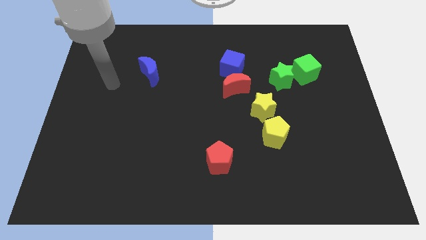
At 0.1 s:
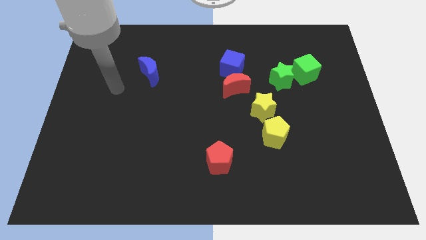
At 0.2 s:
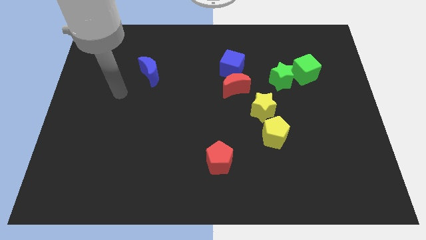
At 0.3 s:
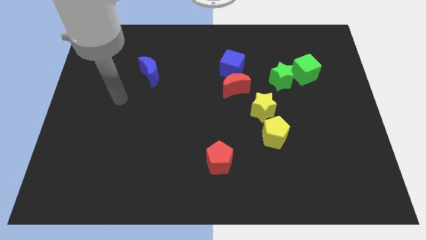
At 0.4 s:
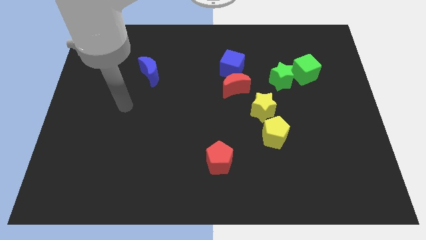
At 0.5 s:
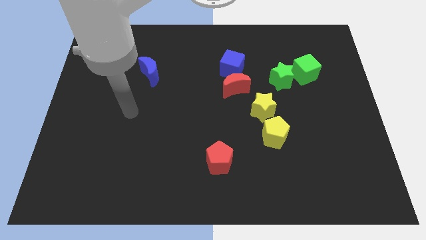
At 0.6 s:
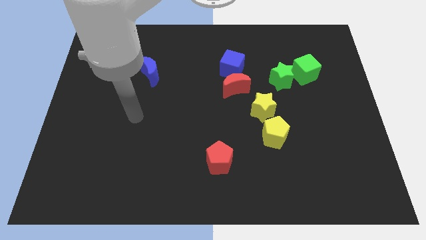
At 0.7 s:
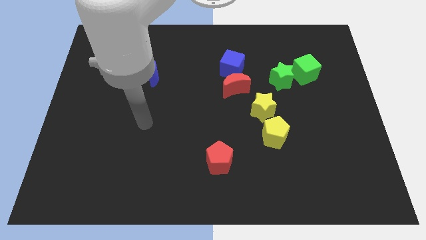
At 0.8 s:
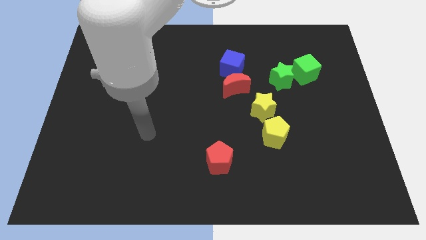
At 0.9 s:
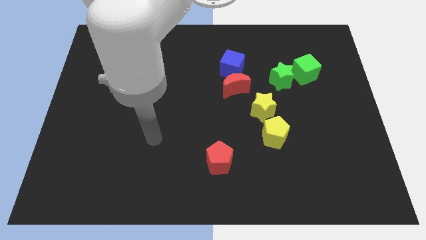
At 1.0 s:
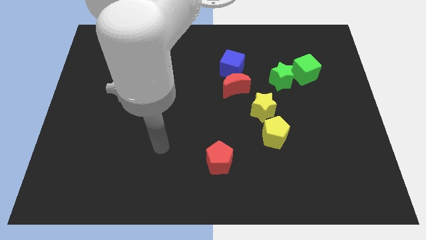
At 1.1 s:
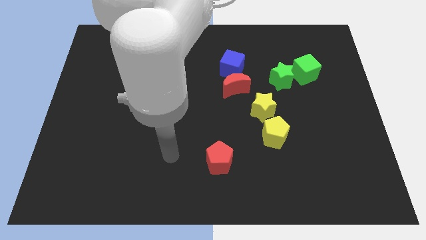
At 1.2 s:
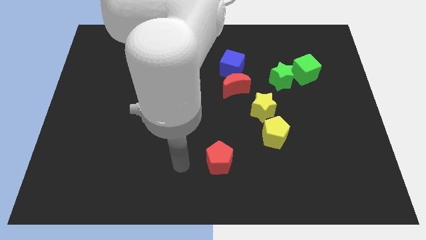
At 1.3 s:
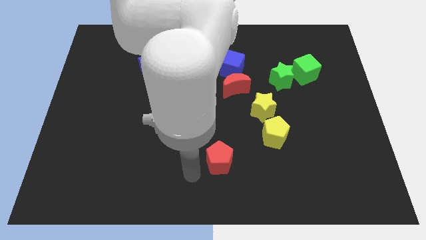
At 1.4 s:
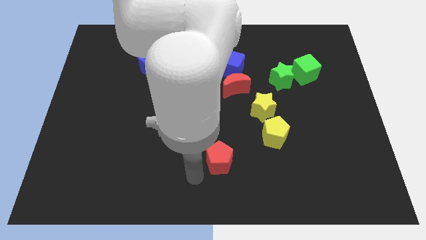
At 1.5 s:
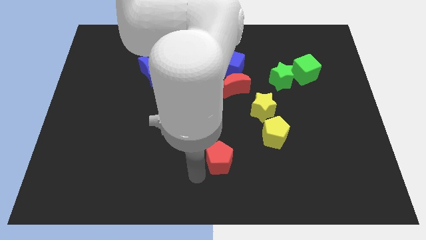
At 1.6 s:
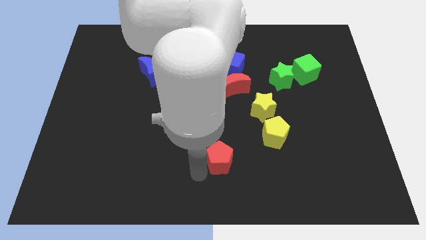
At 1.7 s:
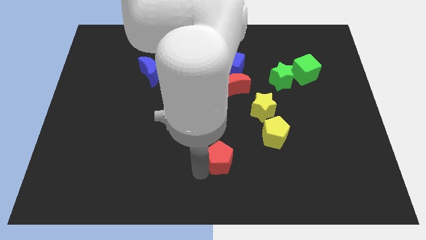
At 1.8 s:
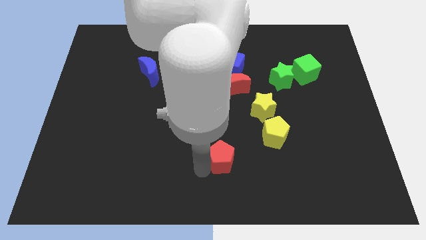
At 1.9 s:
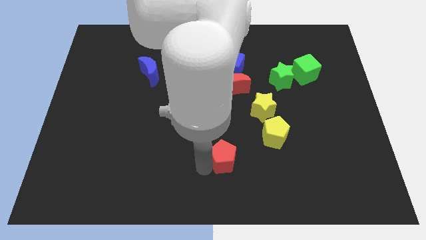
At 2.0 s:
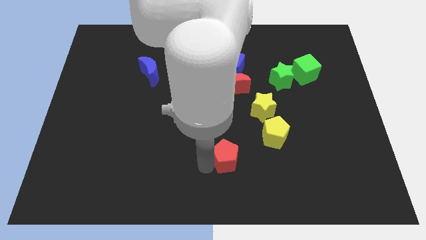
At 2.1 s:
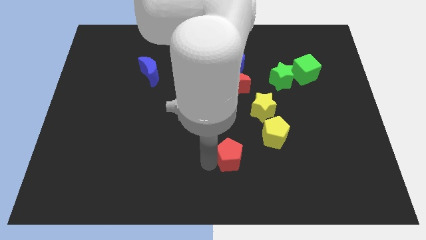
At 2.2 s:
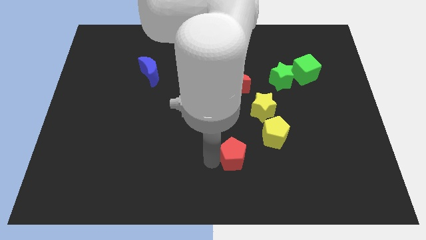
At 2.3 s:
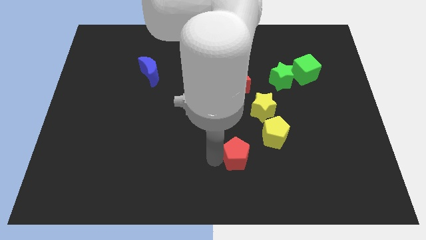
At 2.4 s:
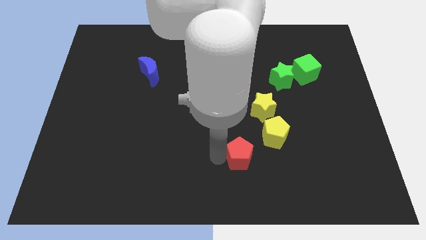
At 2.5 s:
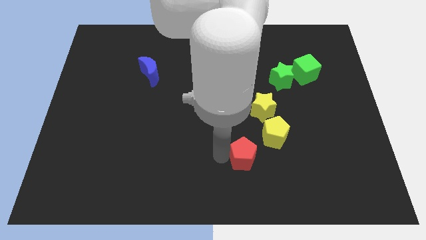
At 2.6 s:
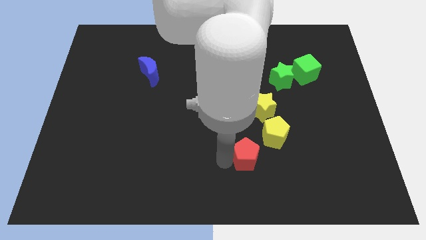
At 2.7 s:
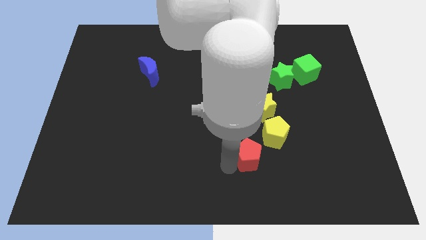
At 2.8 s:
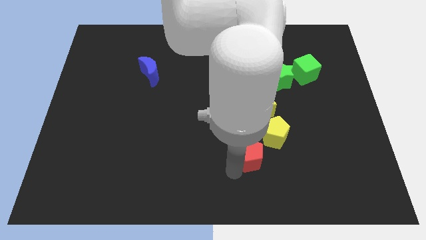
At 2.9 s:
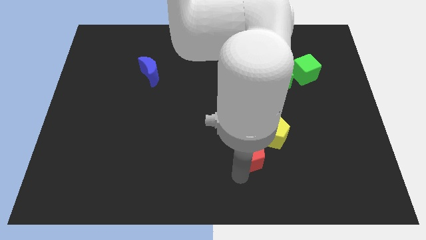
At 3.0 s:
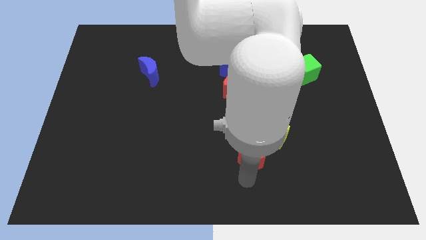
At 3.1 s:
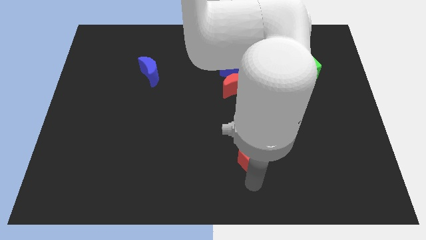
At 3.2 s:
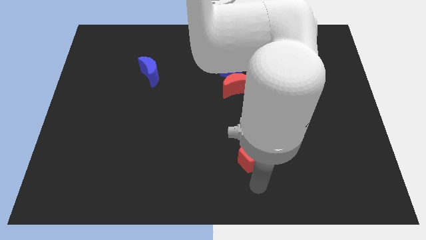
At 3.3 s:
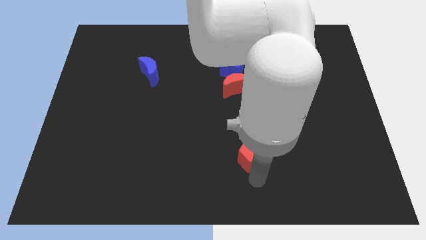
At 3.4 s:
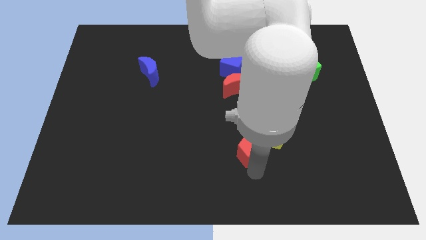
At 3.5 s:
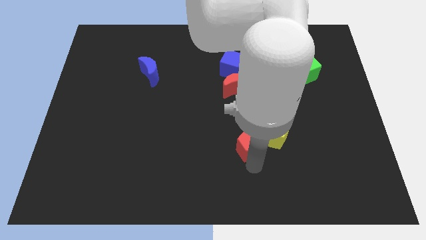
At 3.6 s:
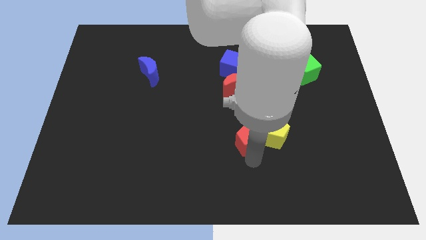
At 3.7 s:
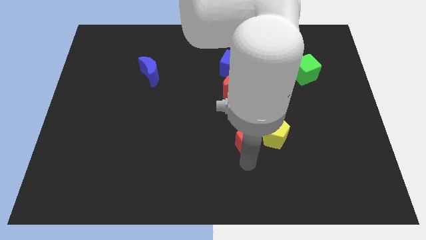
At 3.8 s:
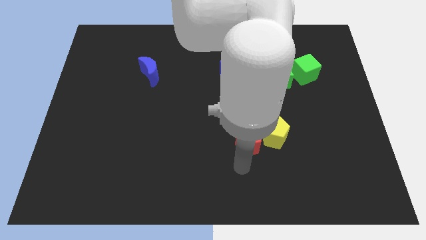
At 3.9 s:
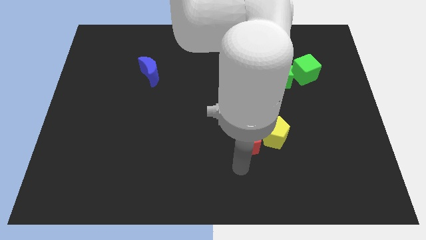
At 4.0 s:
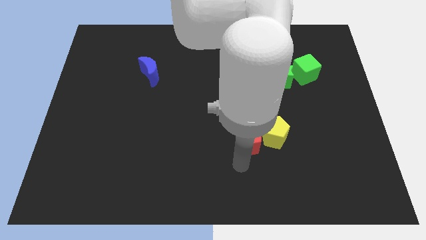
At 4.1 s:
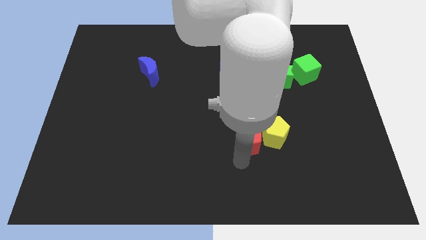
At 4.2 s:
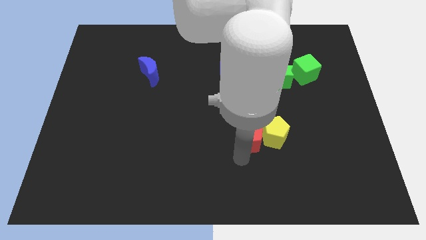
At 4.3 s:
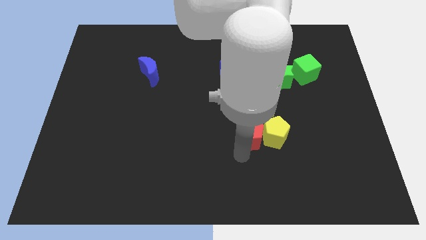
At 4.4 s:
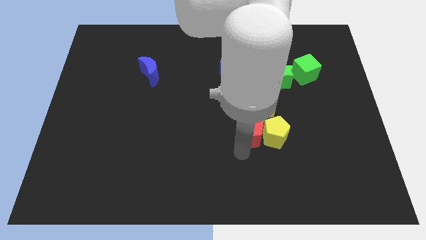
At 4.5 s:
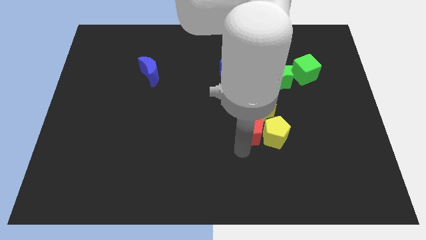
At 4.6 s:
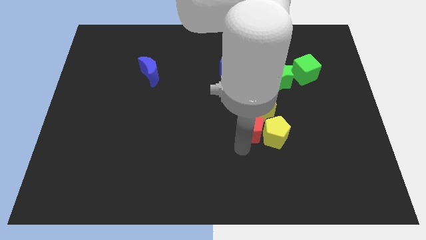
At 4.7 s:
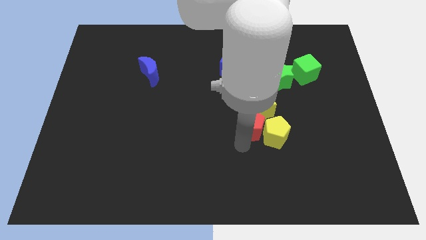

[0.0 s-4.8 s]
slide the red pentagon towards the yellow star

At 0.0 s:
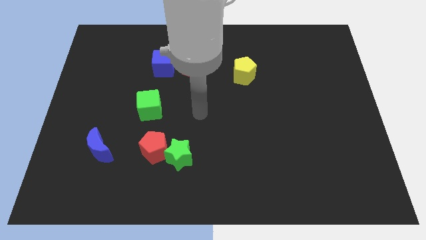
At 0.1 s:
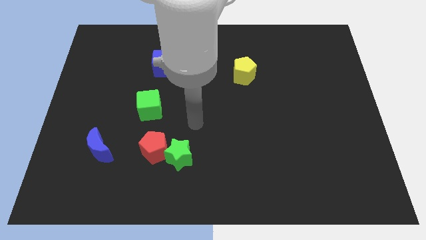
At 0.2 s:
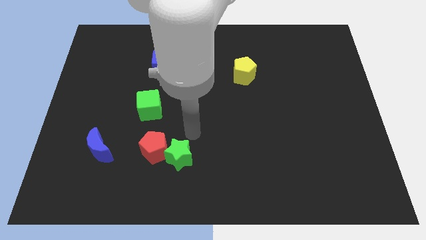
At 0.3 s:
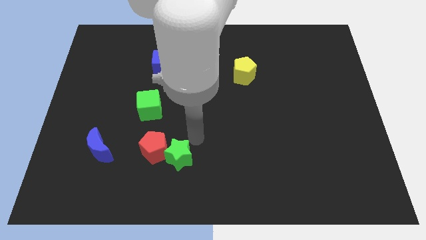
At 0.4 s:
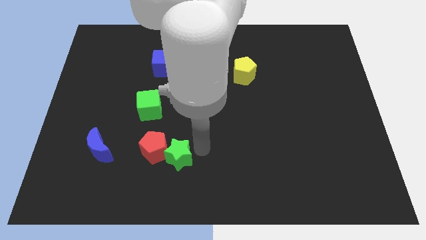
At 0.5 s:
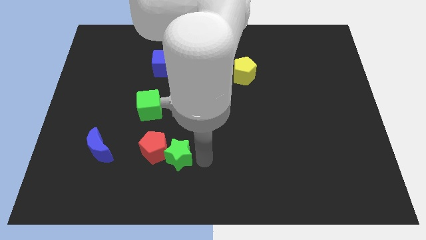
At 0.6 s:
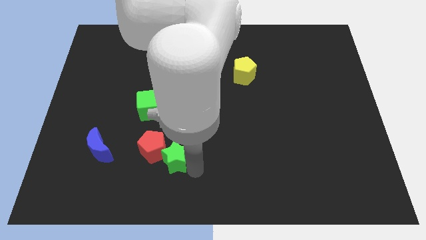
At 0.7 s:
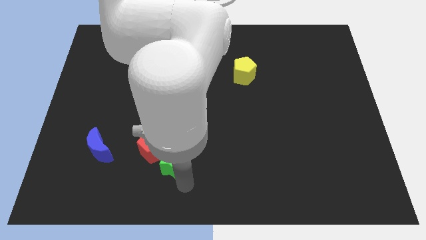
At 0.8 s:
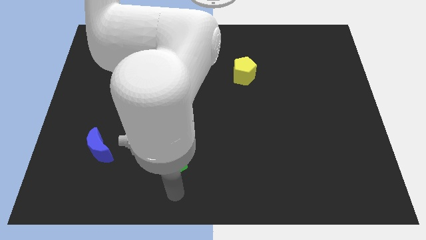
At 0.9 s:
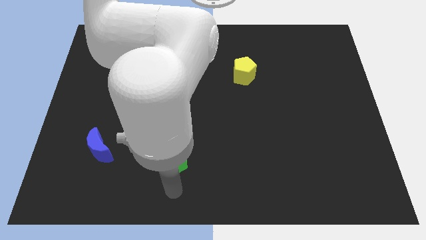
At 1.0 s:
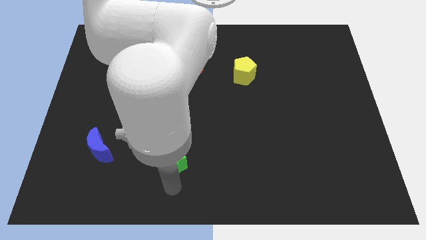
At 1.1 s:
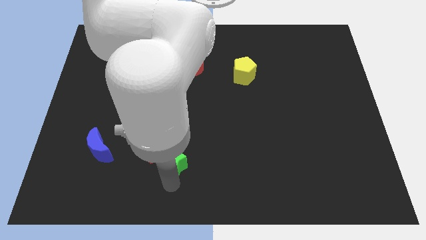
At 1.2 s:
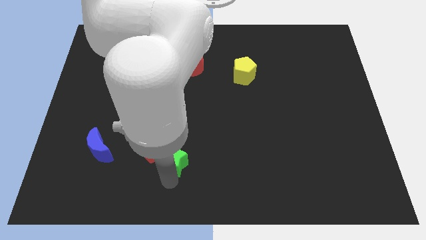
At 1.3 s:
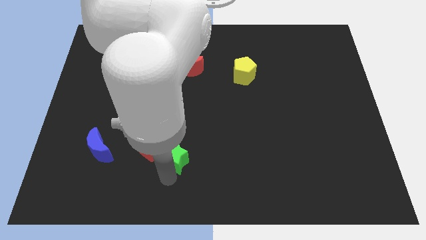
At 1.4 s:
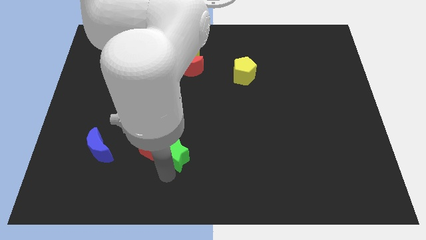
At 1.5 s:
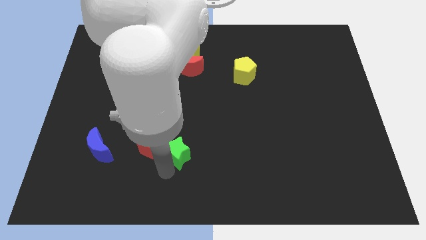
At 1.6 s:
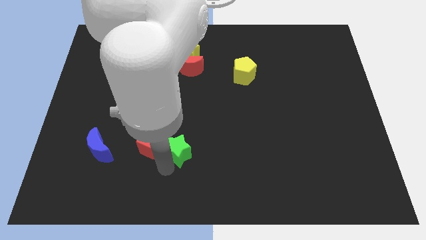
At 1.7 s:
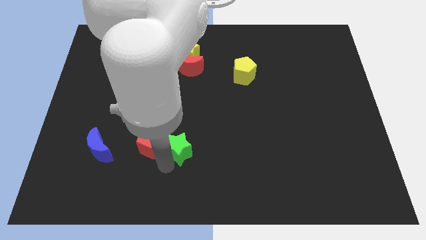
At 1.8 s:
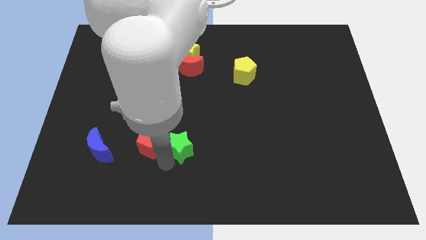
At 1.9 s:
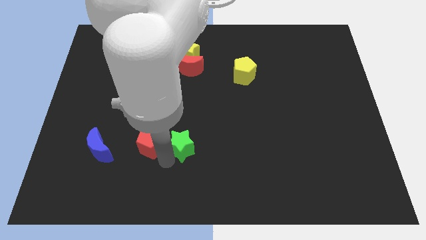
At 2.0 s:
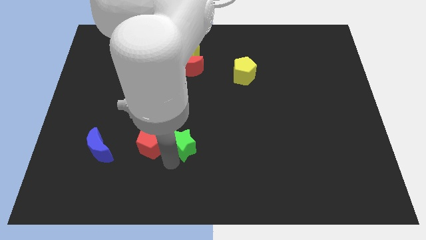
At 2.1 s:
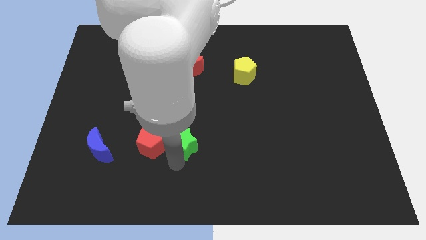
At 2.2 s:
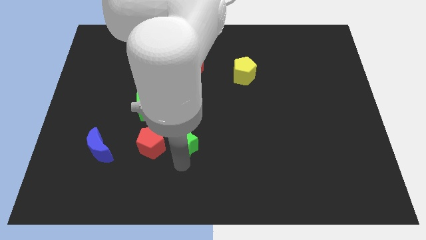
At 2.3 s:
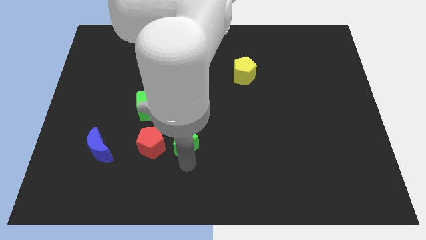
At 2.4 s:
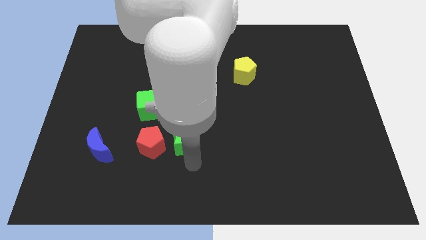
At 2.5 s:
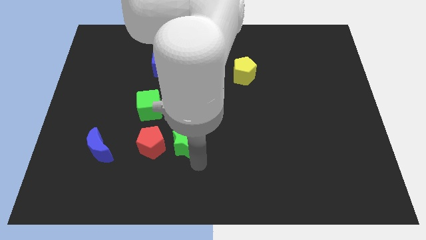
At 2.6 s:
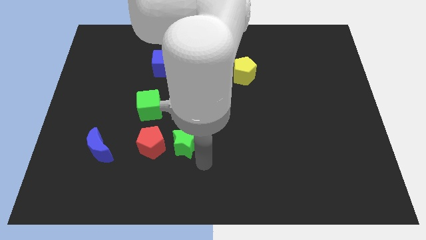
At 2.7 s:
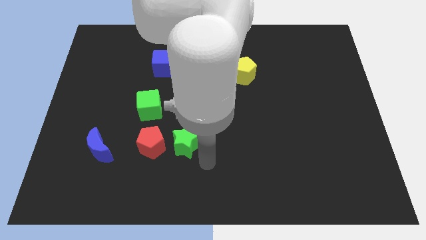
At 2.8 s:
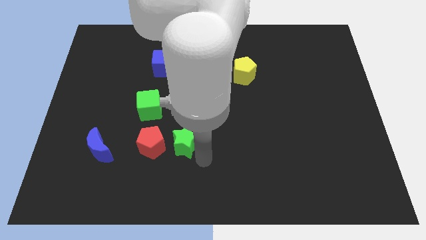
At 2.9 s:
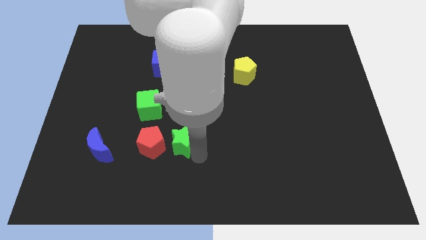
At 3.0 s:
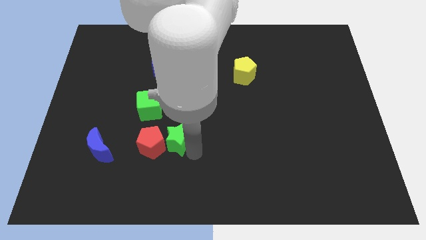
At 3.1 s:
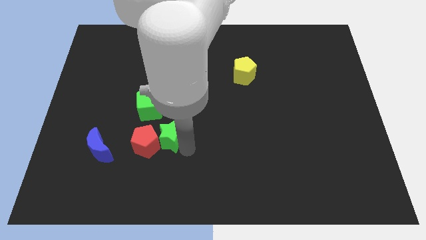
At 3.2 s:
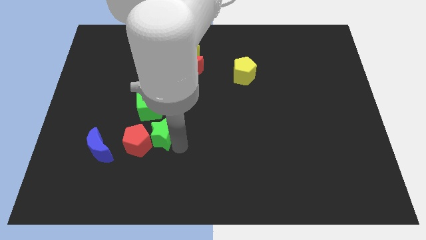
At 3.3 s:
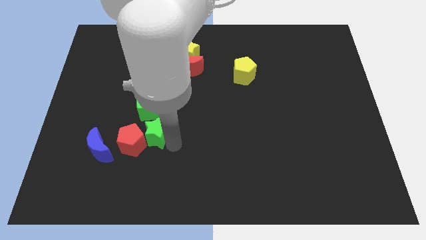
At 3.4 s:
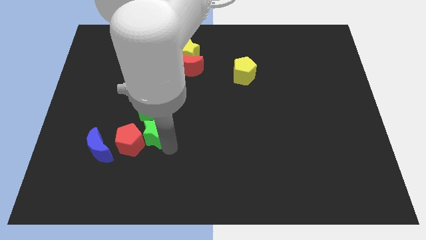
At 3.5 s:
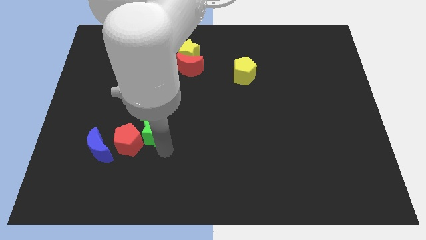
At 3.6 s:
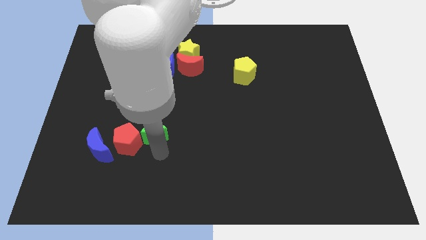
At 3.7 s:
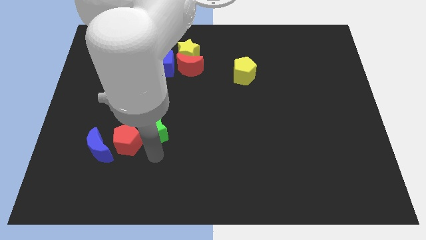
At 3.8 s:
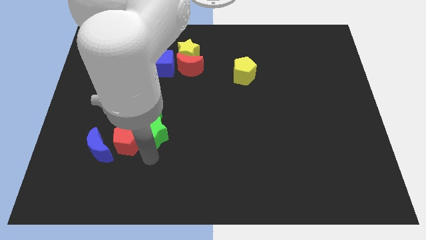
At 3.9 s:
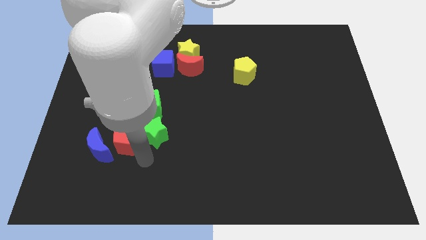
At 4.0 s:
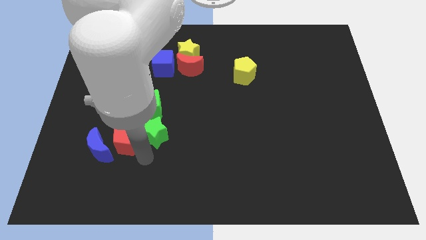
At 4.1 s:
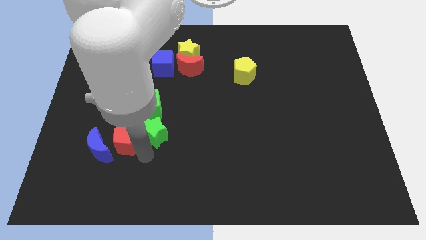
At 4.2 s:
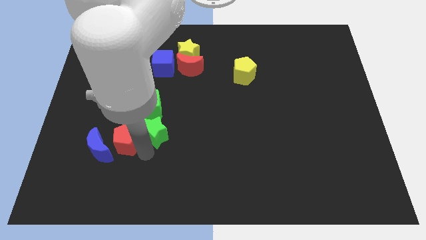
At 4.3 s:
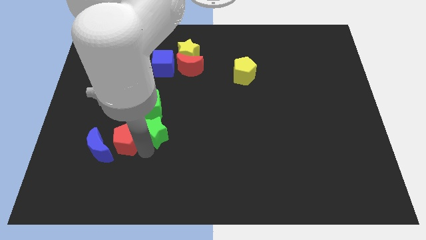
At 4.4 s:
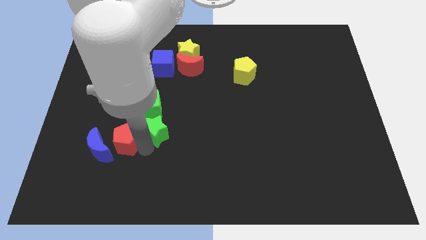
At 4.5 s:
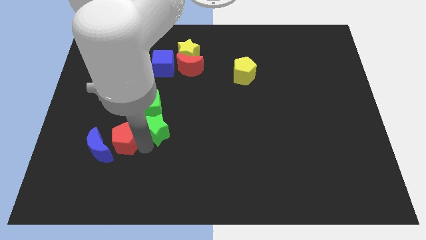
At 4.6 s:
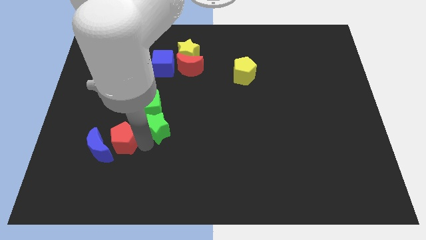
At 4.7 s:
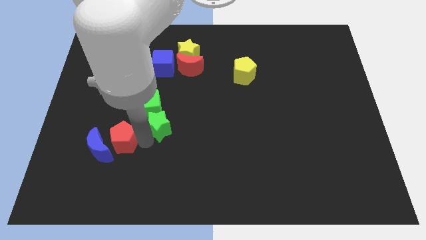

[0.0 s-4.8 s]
push the green star towards the green cube
